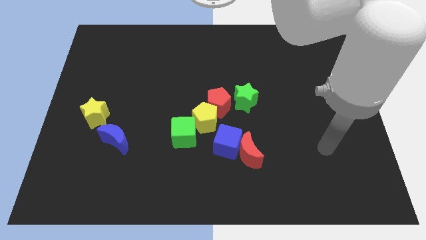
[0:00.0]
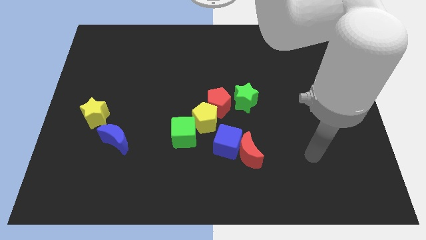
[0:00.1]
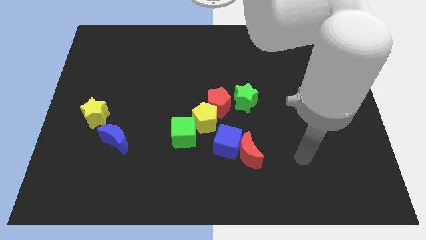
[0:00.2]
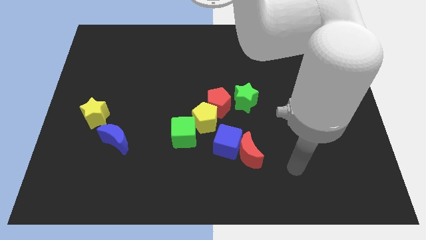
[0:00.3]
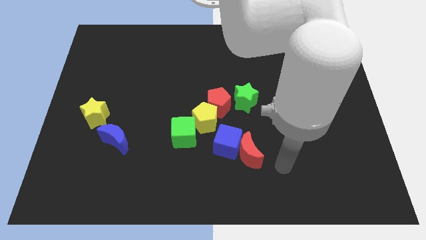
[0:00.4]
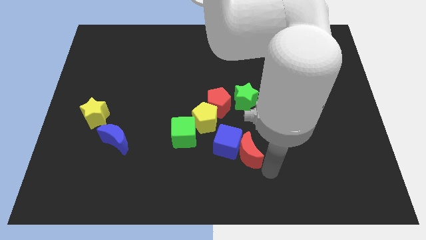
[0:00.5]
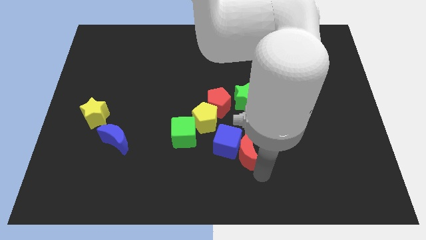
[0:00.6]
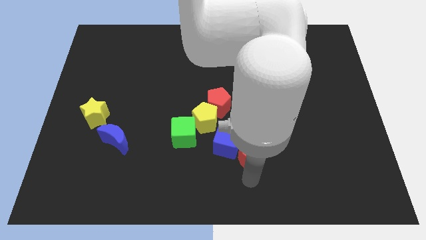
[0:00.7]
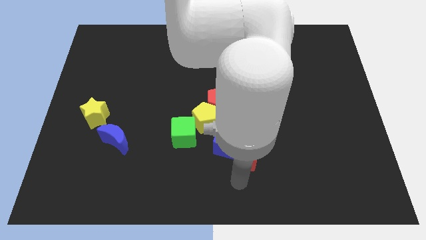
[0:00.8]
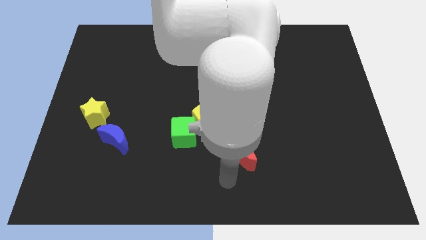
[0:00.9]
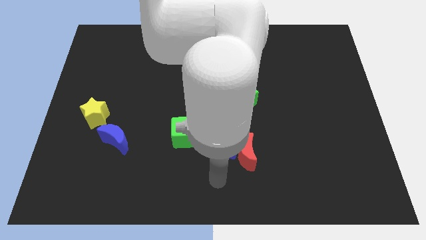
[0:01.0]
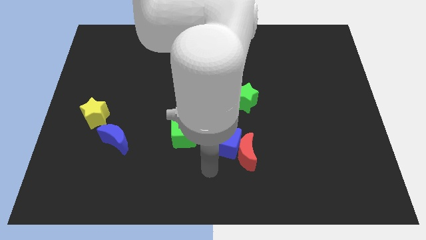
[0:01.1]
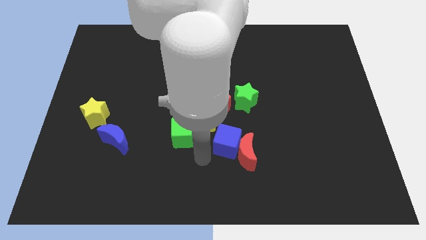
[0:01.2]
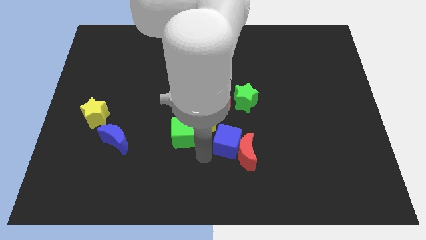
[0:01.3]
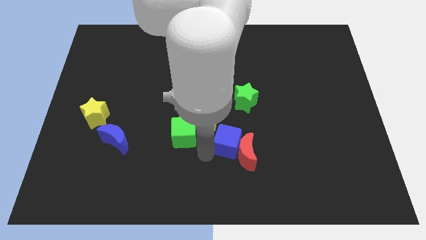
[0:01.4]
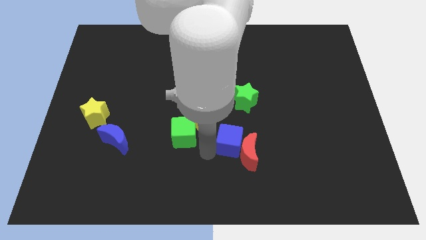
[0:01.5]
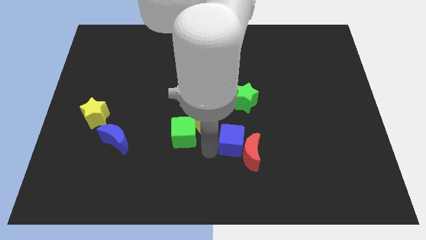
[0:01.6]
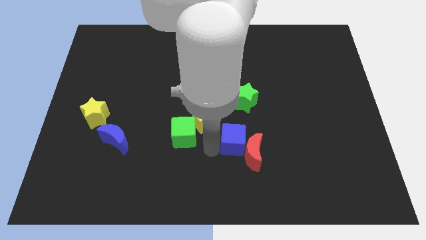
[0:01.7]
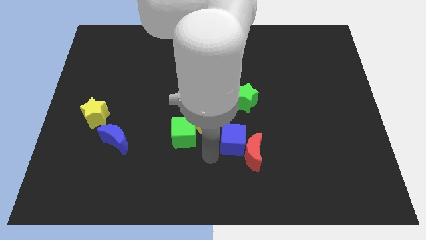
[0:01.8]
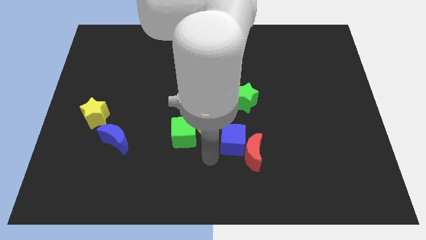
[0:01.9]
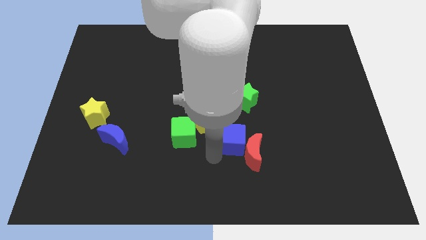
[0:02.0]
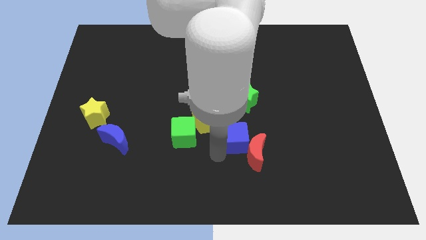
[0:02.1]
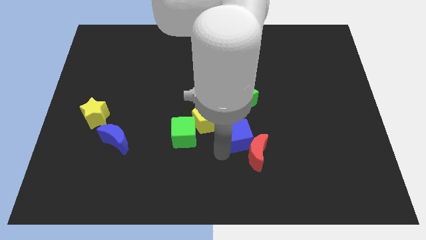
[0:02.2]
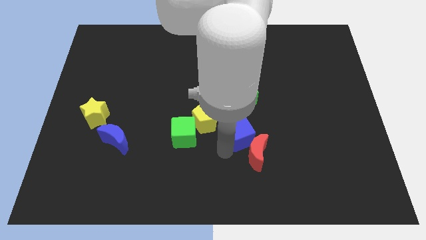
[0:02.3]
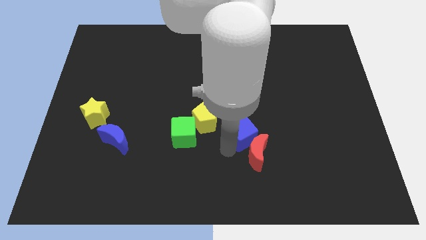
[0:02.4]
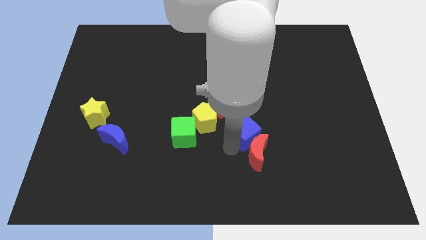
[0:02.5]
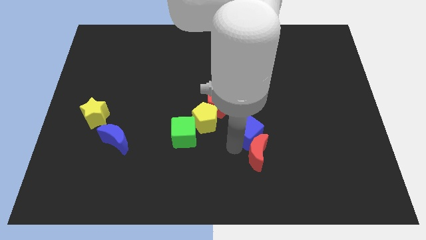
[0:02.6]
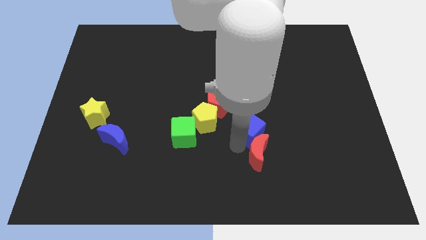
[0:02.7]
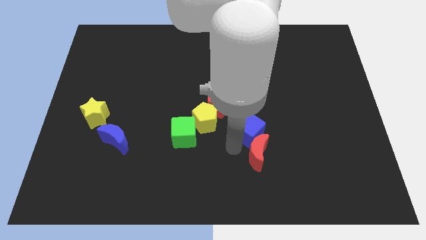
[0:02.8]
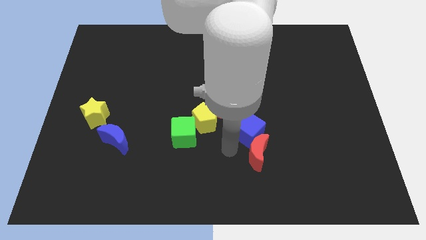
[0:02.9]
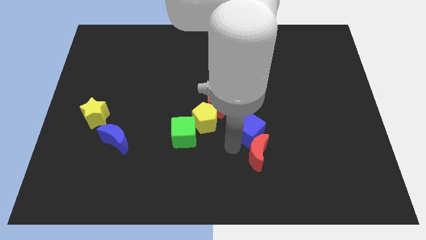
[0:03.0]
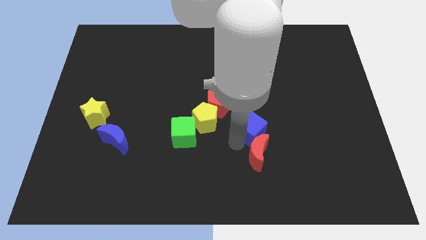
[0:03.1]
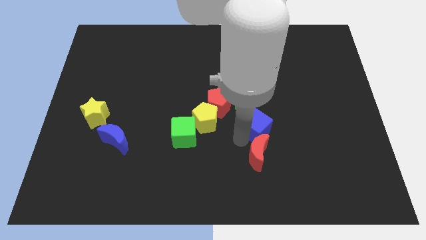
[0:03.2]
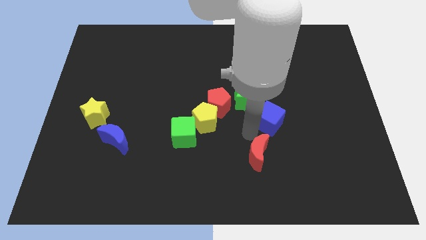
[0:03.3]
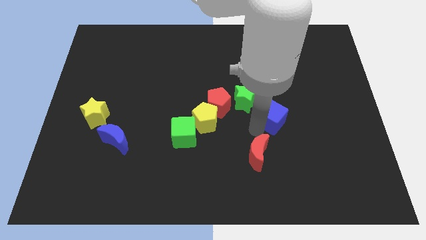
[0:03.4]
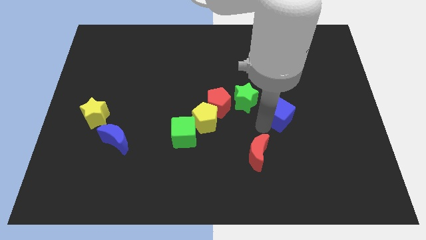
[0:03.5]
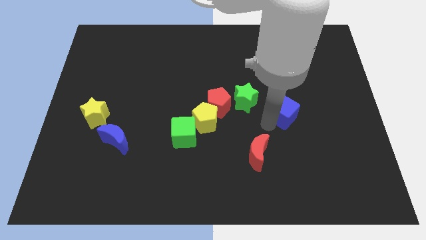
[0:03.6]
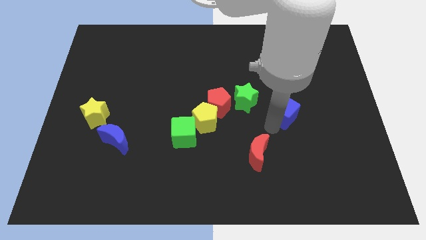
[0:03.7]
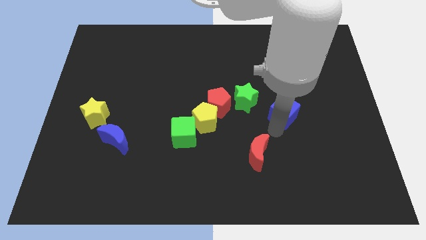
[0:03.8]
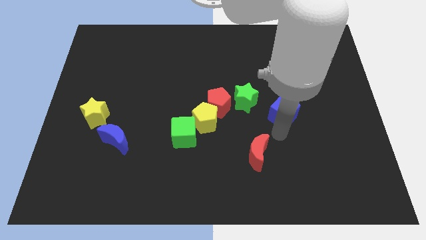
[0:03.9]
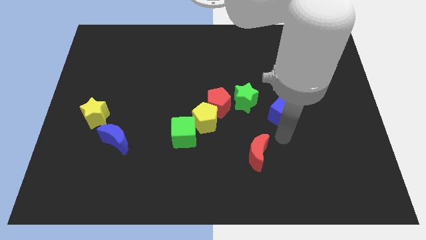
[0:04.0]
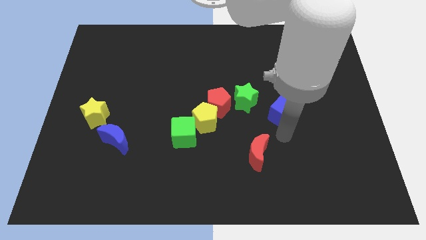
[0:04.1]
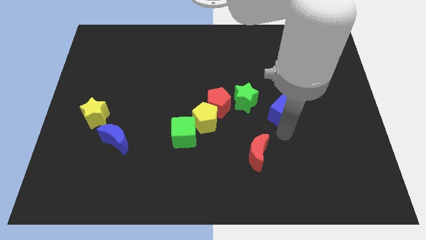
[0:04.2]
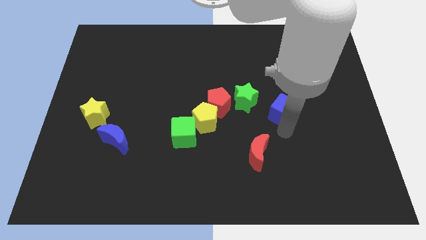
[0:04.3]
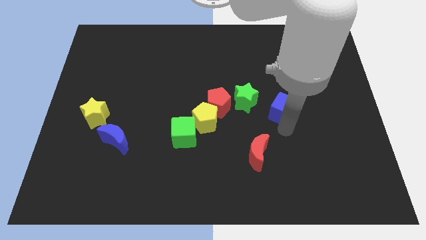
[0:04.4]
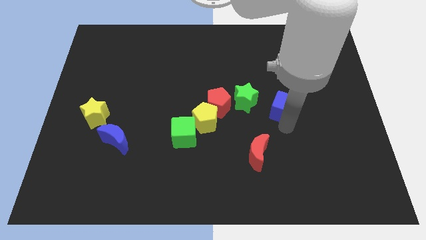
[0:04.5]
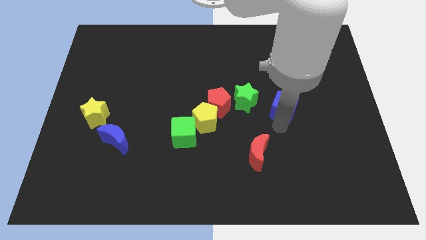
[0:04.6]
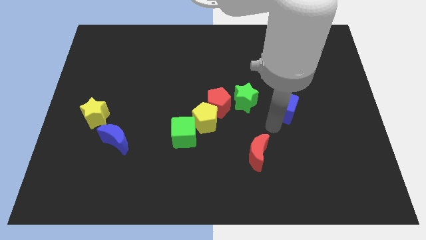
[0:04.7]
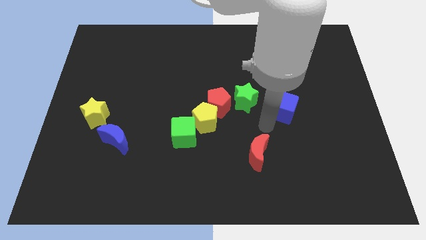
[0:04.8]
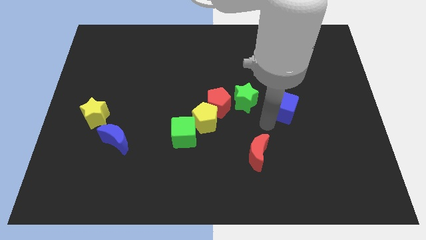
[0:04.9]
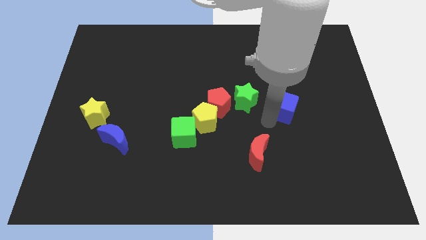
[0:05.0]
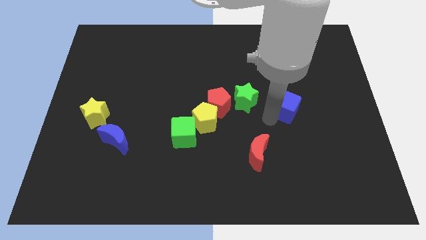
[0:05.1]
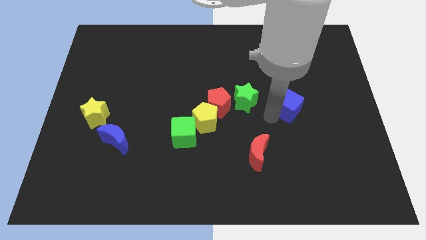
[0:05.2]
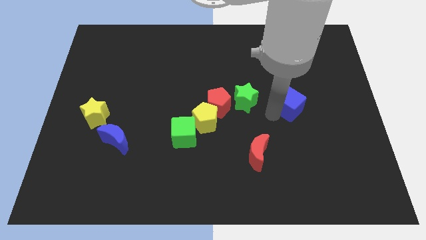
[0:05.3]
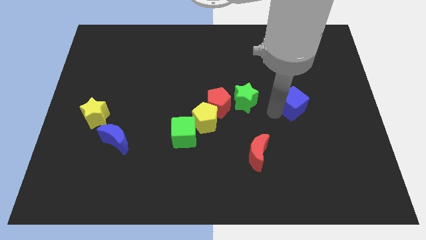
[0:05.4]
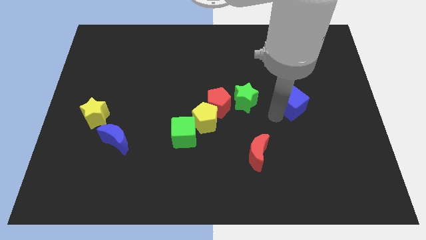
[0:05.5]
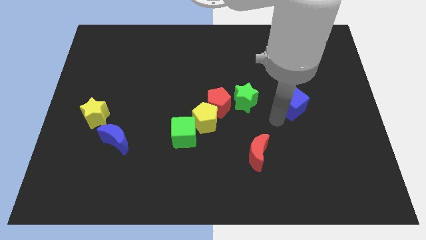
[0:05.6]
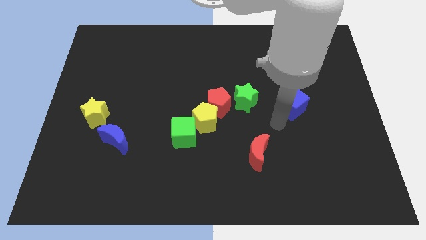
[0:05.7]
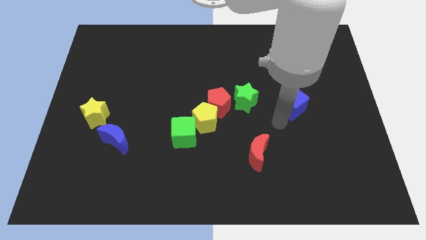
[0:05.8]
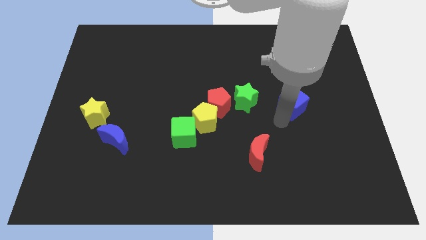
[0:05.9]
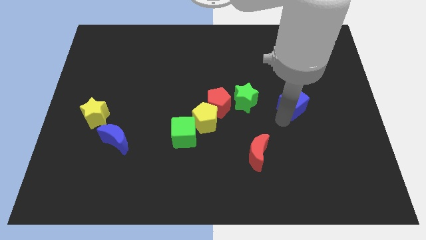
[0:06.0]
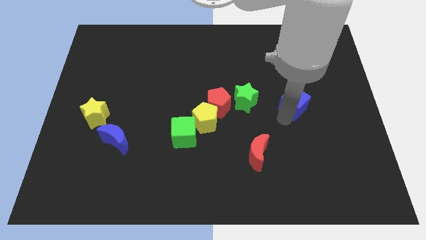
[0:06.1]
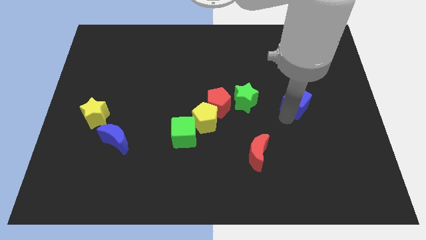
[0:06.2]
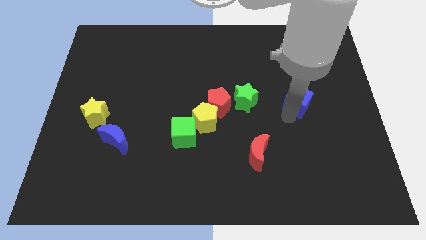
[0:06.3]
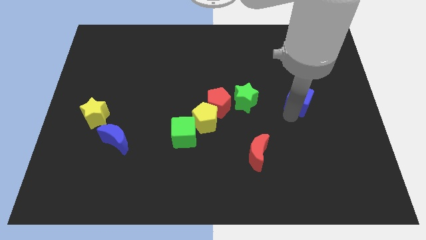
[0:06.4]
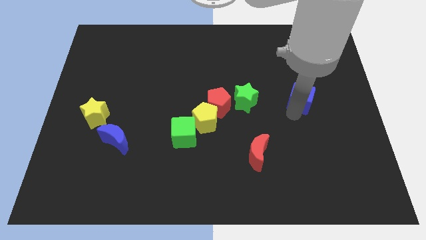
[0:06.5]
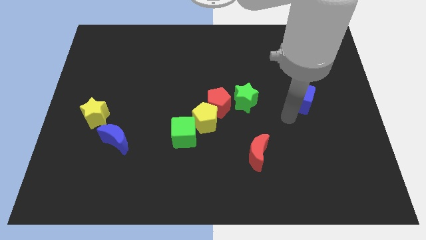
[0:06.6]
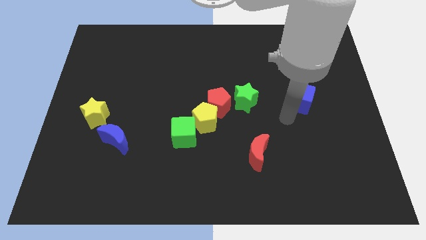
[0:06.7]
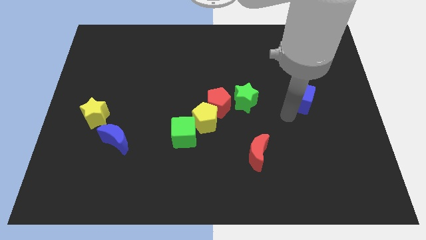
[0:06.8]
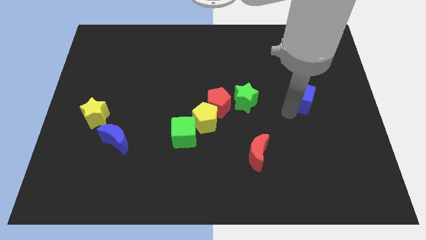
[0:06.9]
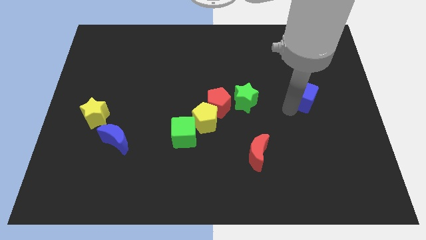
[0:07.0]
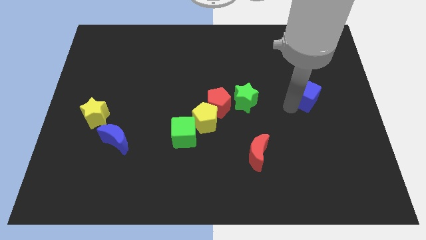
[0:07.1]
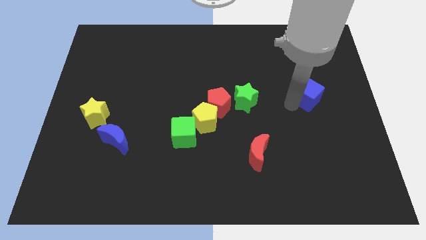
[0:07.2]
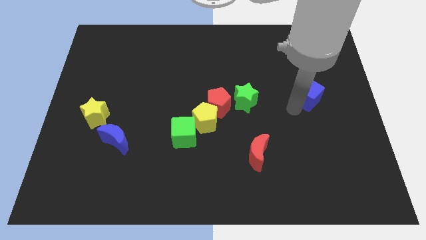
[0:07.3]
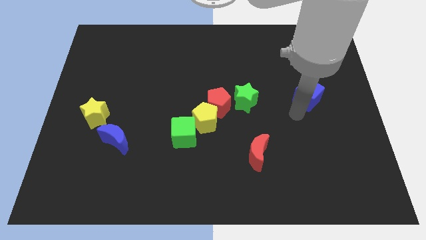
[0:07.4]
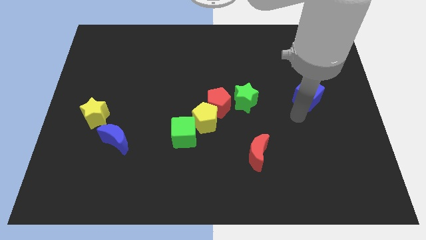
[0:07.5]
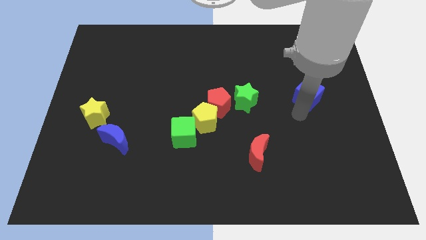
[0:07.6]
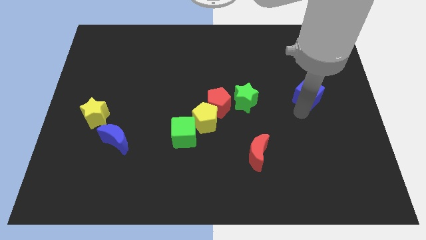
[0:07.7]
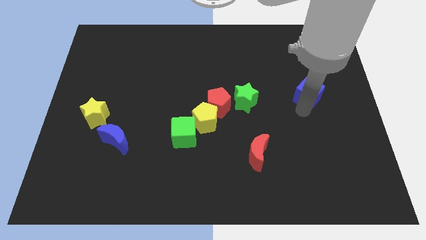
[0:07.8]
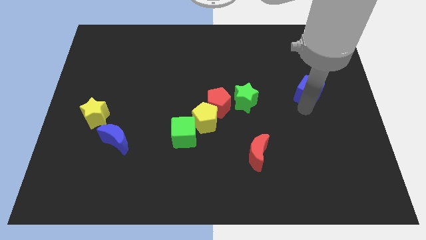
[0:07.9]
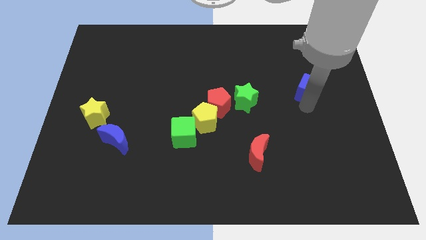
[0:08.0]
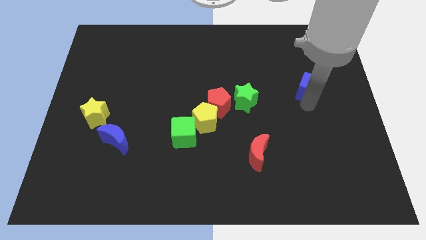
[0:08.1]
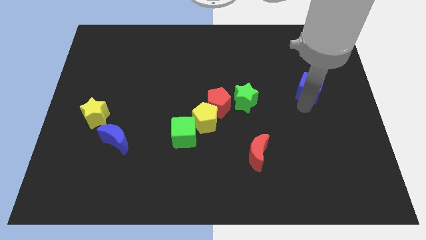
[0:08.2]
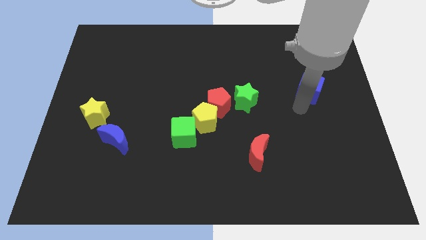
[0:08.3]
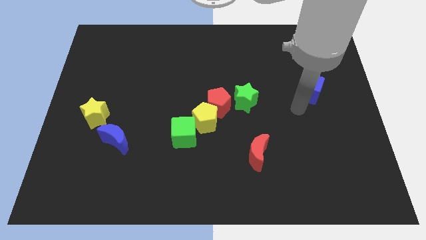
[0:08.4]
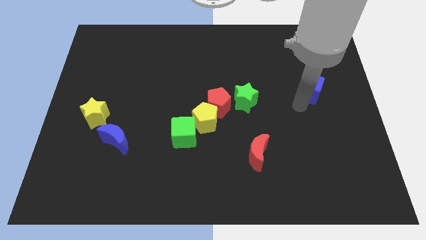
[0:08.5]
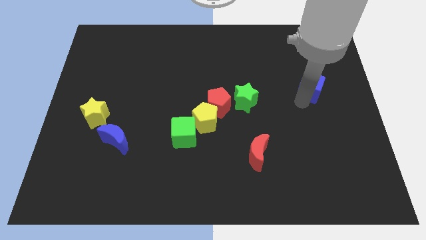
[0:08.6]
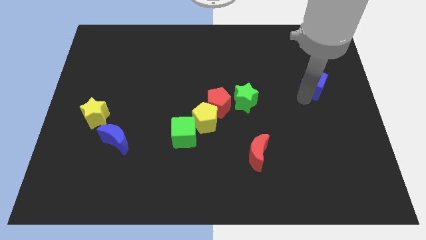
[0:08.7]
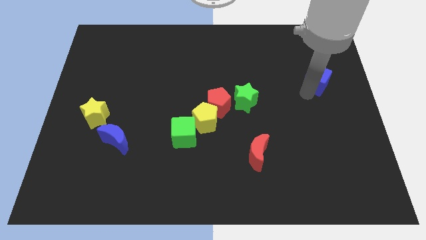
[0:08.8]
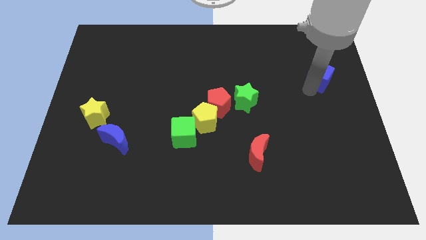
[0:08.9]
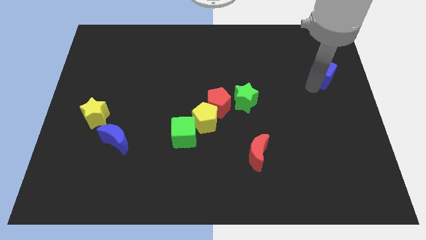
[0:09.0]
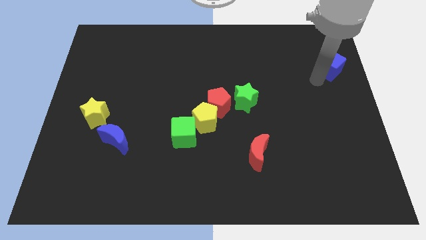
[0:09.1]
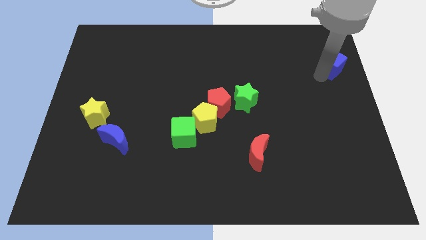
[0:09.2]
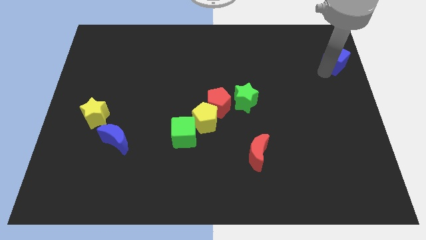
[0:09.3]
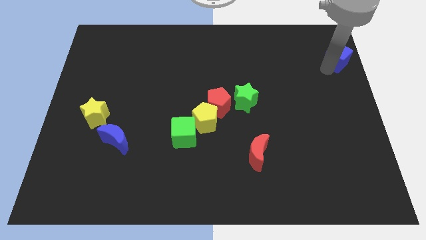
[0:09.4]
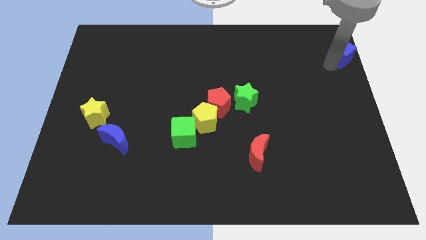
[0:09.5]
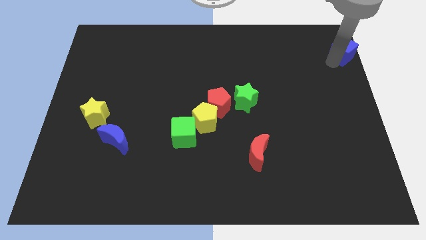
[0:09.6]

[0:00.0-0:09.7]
put the blue cube to the top right
